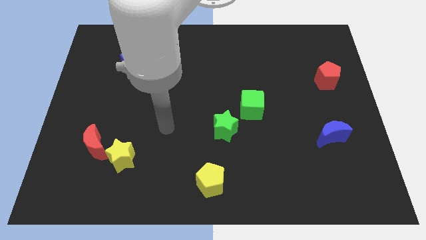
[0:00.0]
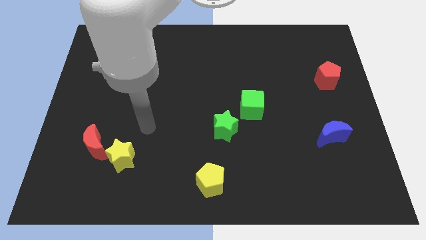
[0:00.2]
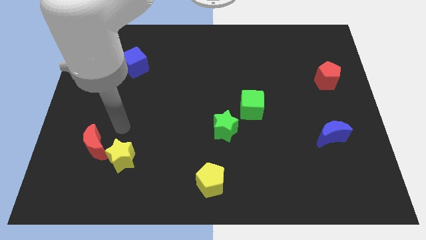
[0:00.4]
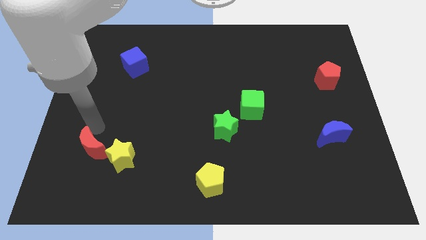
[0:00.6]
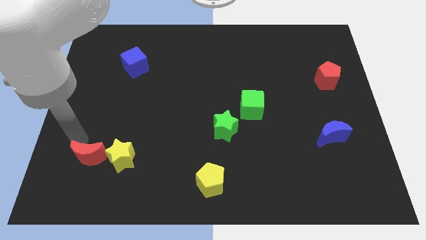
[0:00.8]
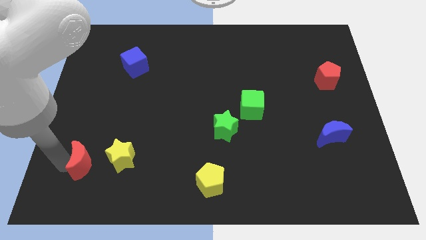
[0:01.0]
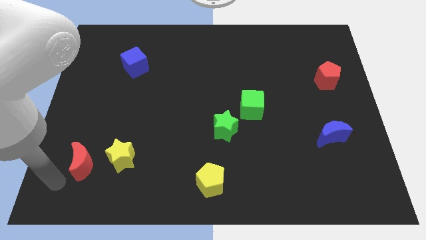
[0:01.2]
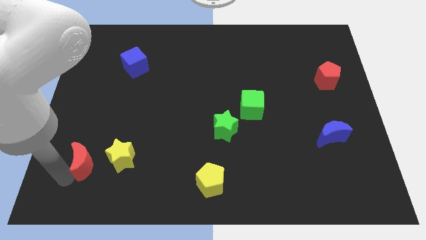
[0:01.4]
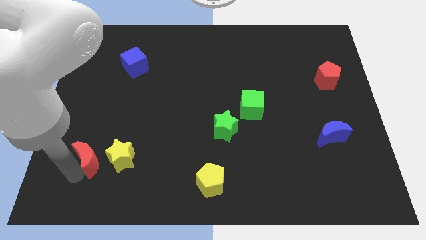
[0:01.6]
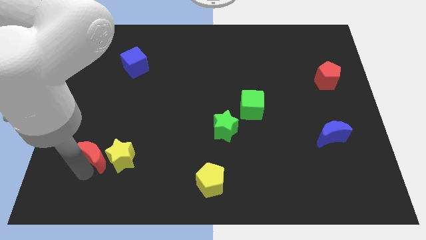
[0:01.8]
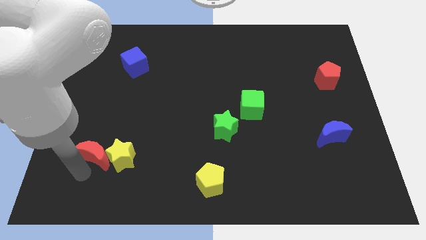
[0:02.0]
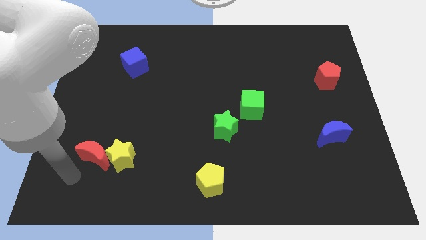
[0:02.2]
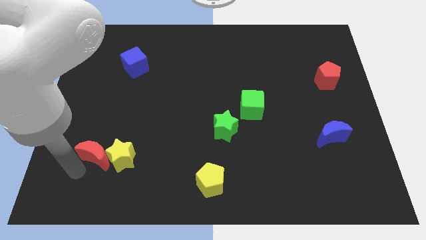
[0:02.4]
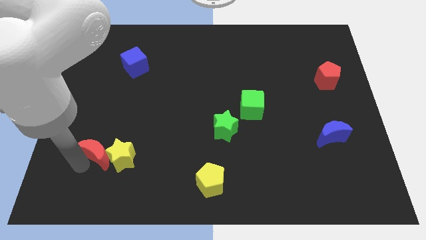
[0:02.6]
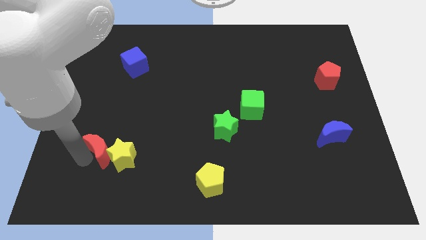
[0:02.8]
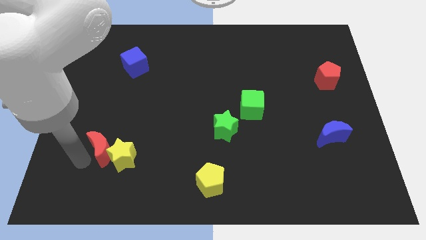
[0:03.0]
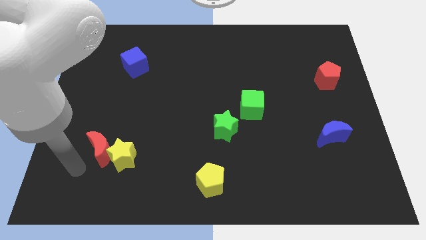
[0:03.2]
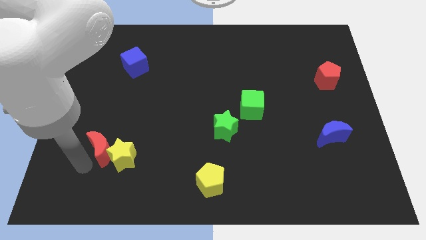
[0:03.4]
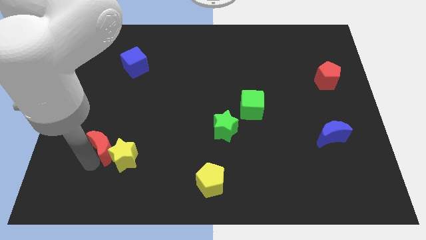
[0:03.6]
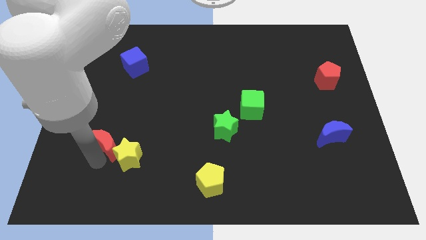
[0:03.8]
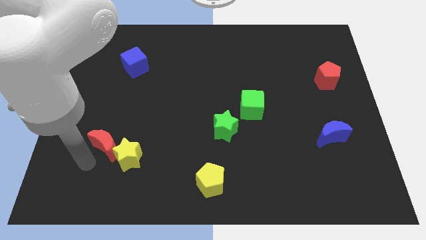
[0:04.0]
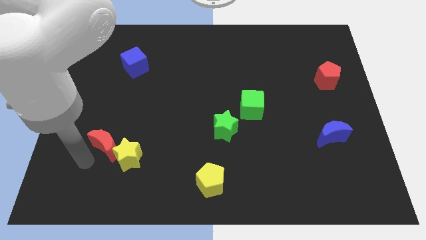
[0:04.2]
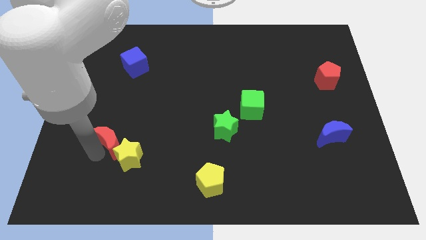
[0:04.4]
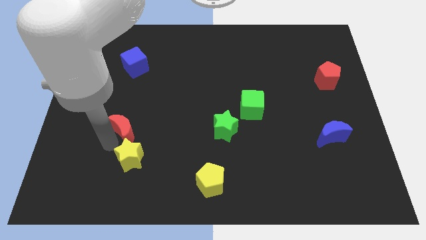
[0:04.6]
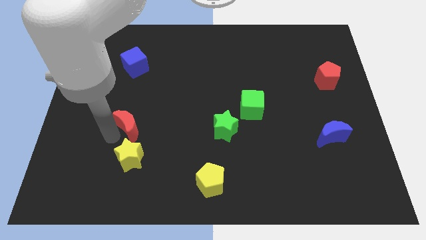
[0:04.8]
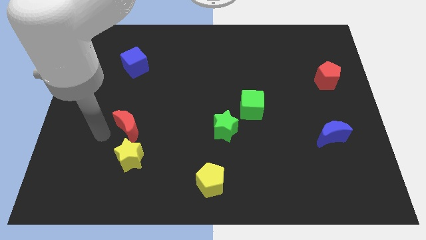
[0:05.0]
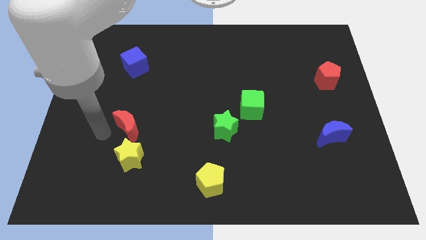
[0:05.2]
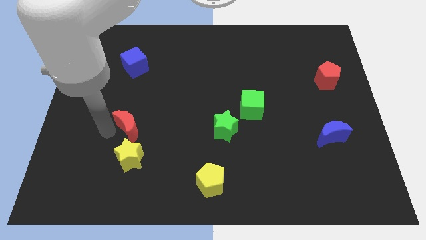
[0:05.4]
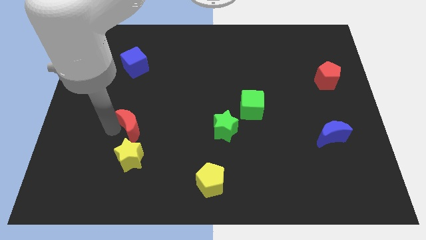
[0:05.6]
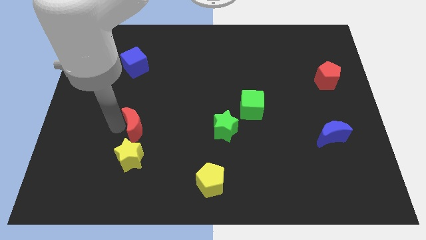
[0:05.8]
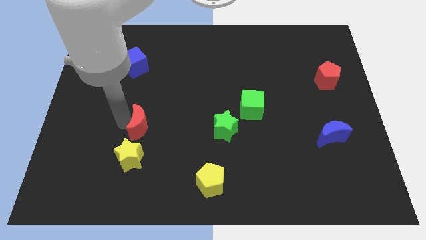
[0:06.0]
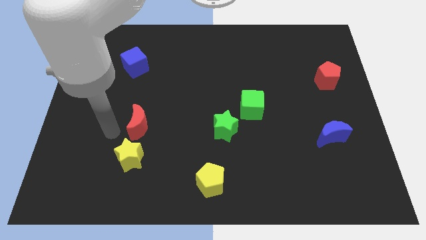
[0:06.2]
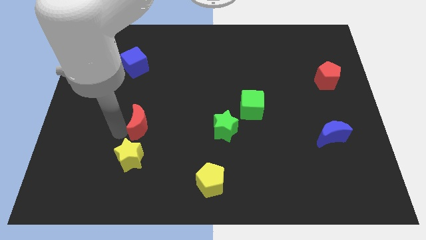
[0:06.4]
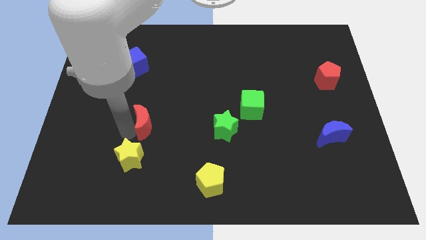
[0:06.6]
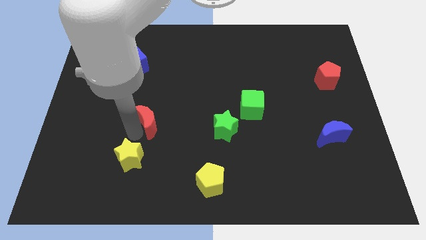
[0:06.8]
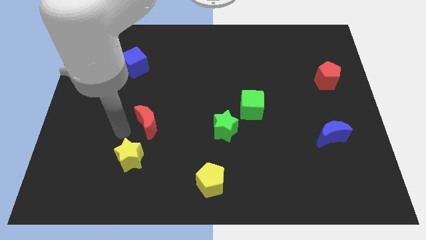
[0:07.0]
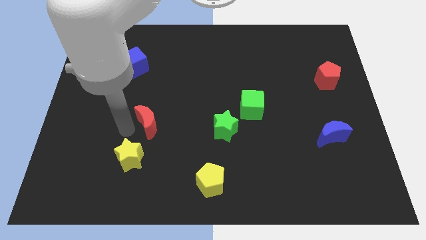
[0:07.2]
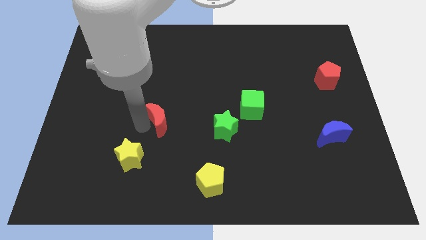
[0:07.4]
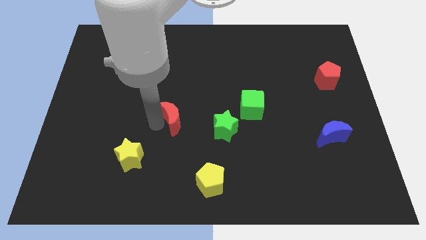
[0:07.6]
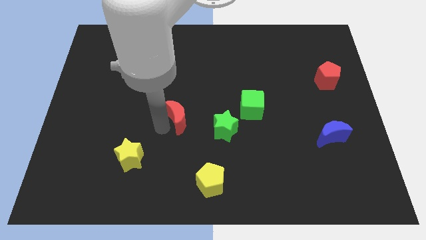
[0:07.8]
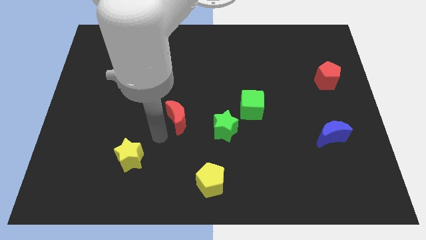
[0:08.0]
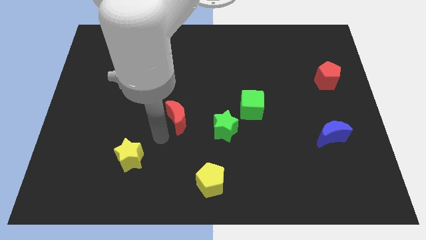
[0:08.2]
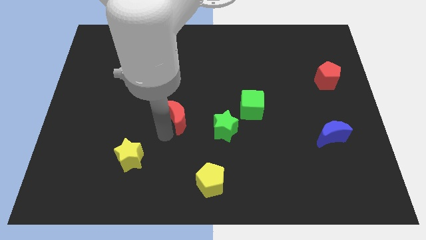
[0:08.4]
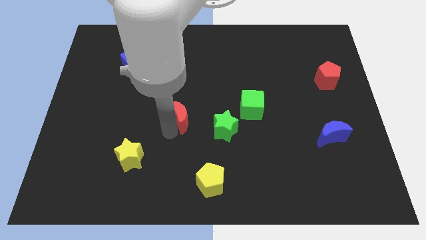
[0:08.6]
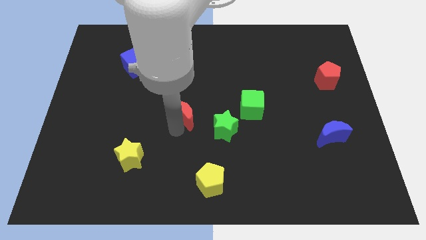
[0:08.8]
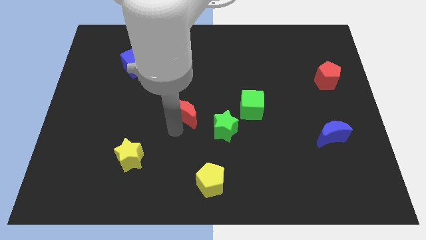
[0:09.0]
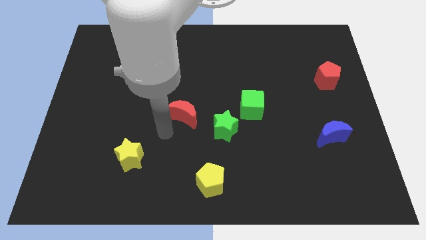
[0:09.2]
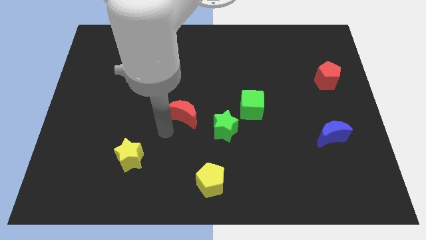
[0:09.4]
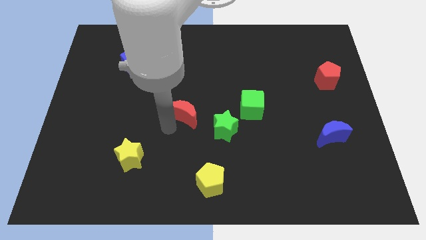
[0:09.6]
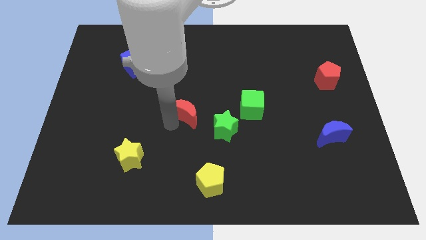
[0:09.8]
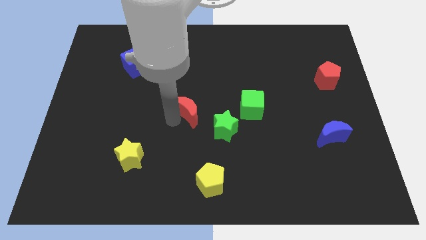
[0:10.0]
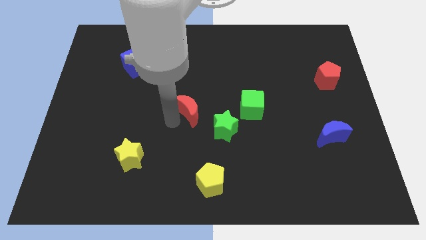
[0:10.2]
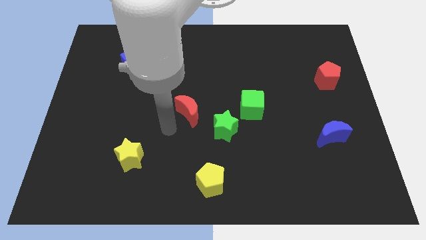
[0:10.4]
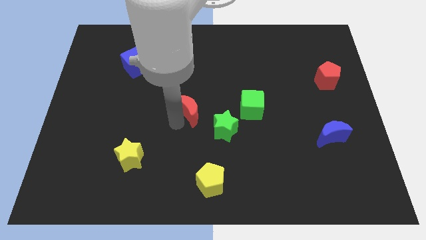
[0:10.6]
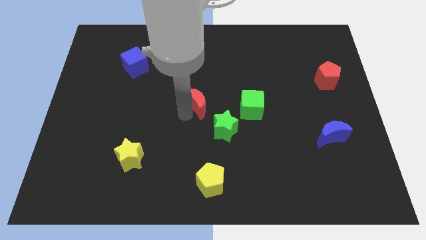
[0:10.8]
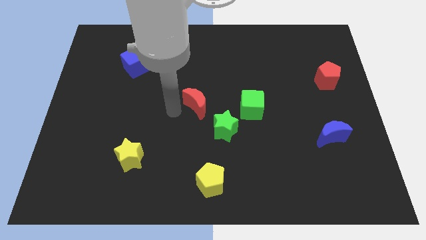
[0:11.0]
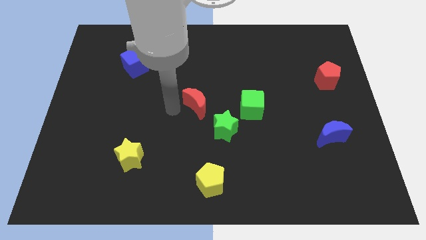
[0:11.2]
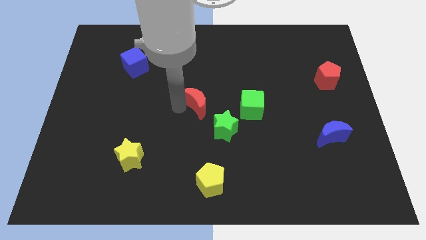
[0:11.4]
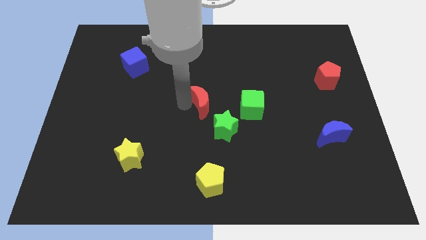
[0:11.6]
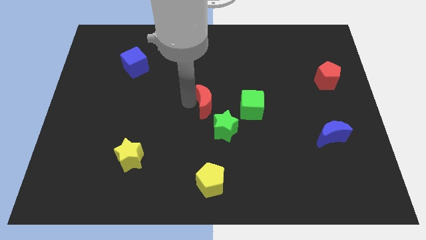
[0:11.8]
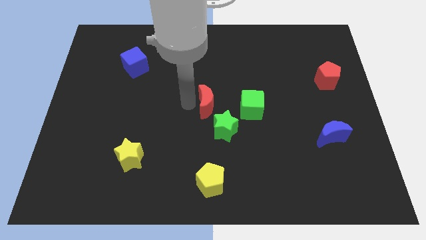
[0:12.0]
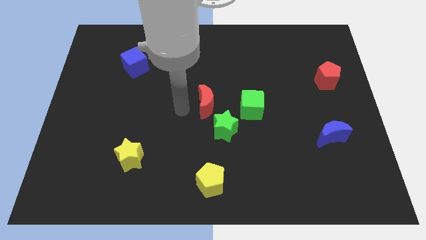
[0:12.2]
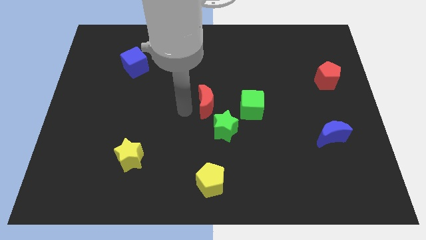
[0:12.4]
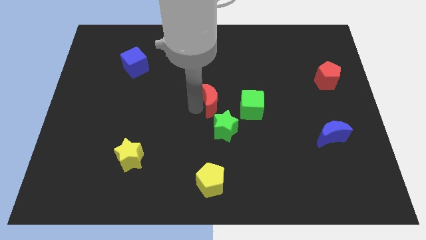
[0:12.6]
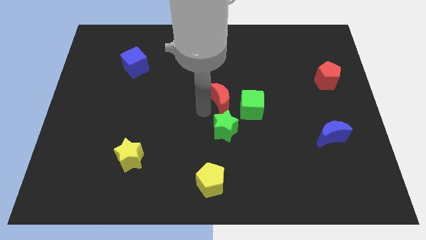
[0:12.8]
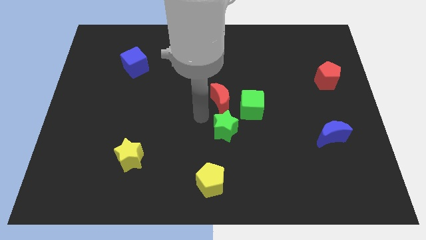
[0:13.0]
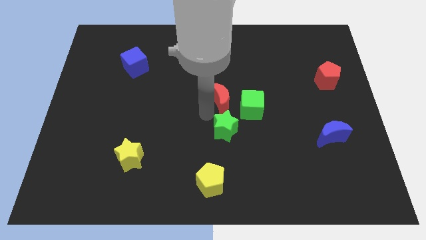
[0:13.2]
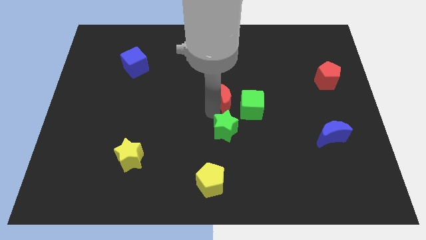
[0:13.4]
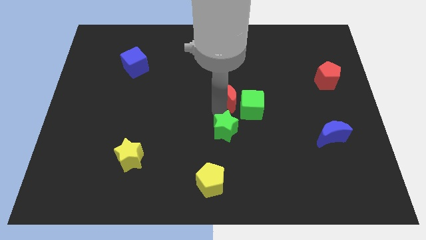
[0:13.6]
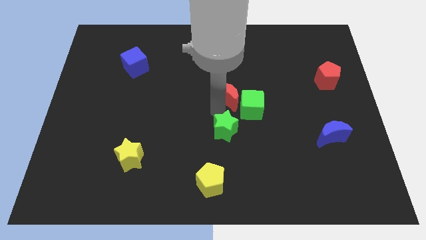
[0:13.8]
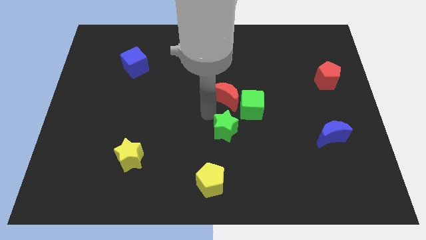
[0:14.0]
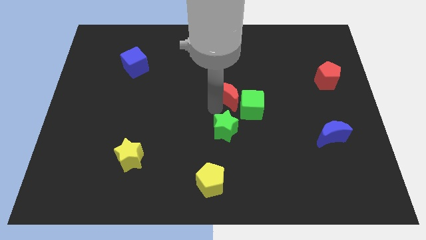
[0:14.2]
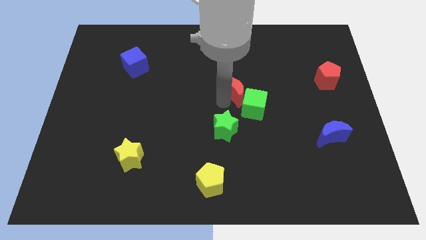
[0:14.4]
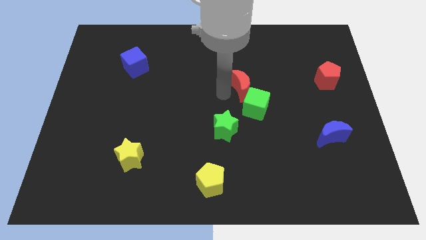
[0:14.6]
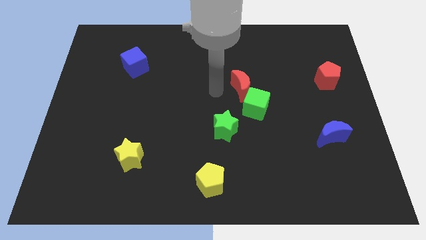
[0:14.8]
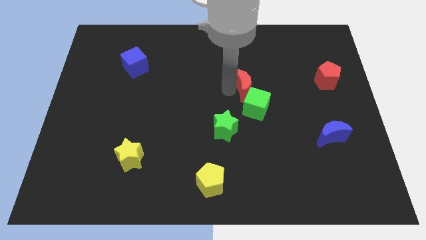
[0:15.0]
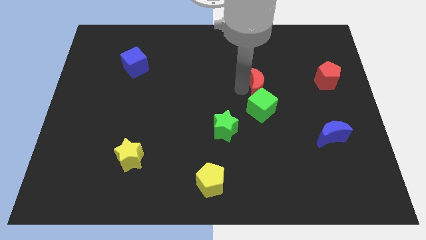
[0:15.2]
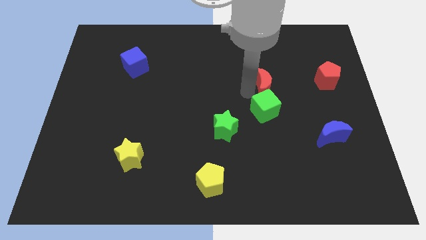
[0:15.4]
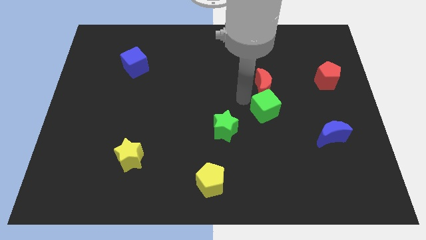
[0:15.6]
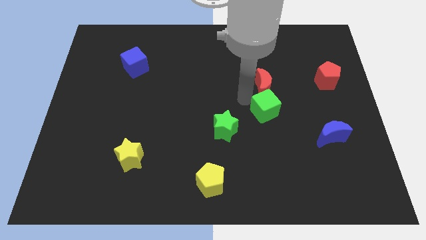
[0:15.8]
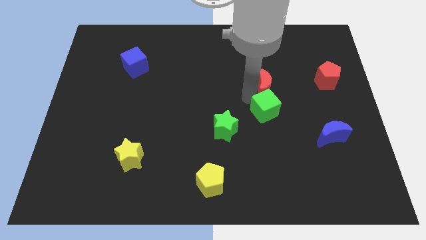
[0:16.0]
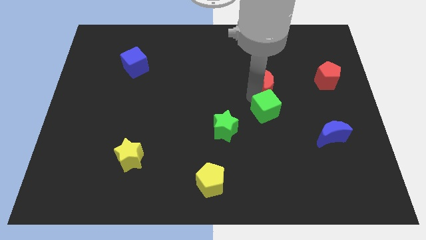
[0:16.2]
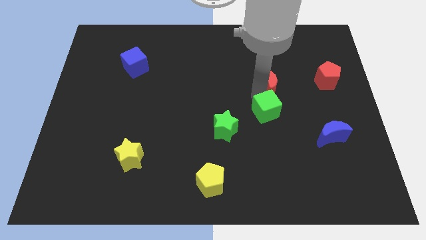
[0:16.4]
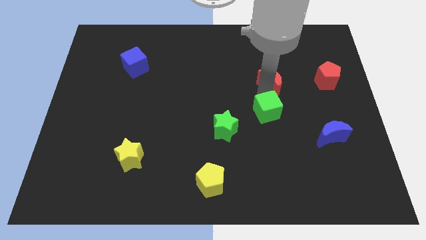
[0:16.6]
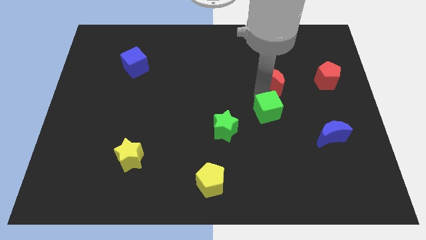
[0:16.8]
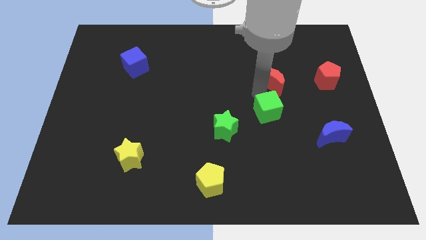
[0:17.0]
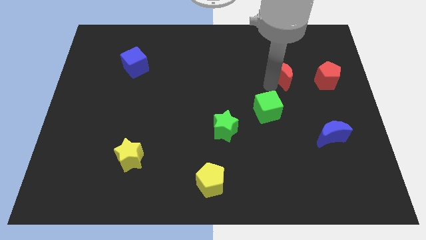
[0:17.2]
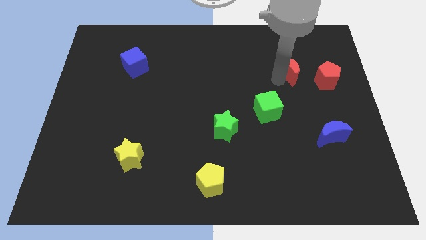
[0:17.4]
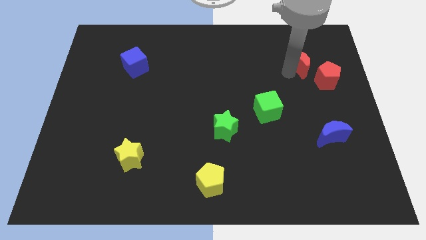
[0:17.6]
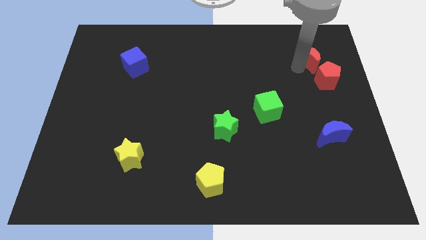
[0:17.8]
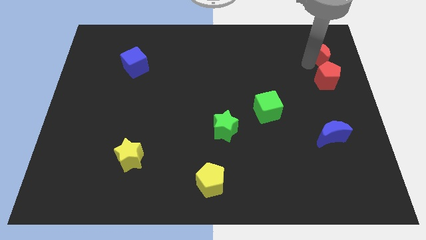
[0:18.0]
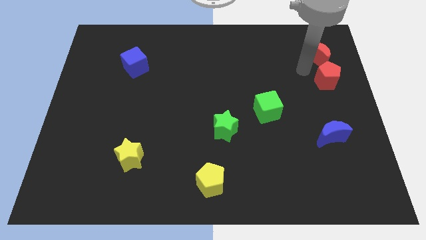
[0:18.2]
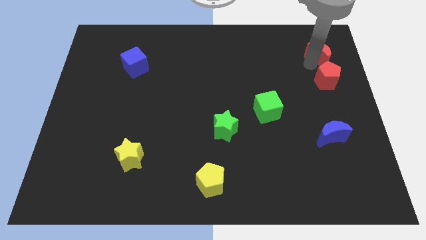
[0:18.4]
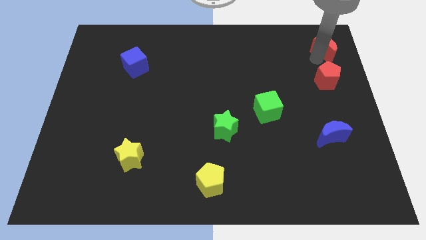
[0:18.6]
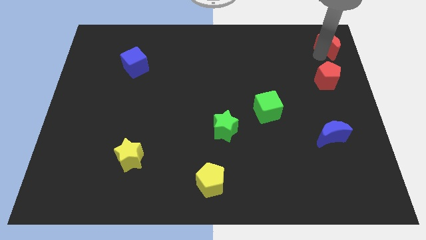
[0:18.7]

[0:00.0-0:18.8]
put the red moon to the top right of the board
